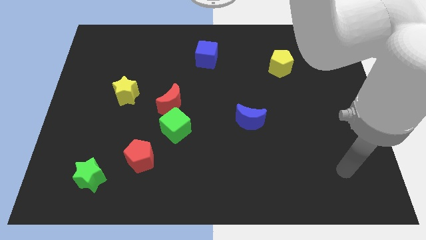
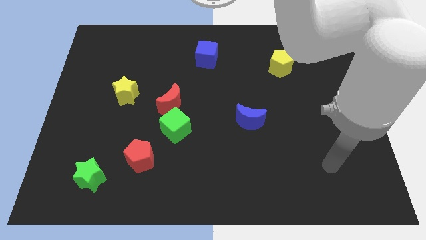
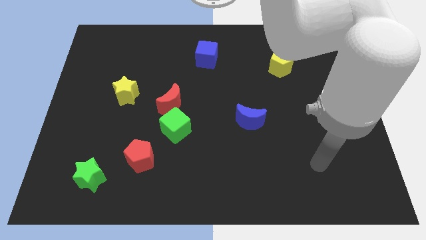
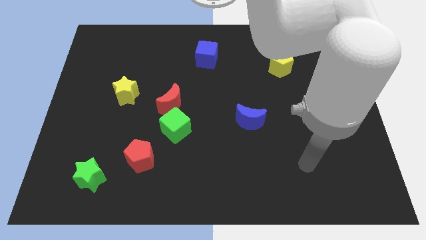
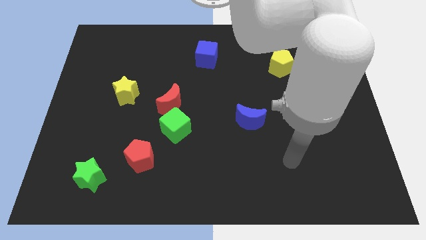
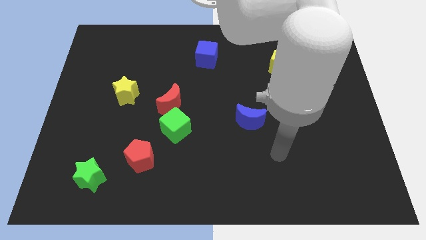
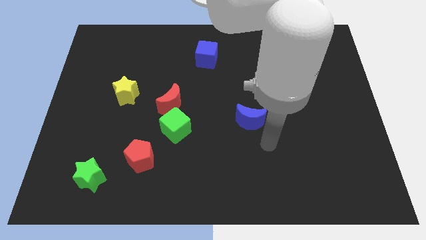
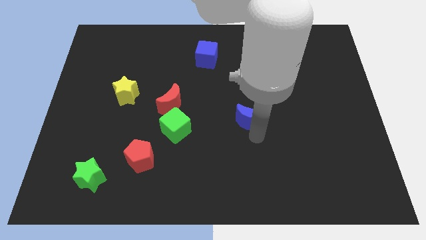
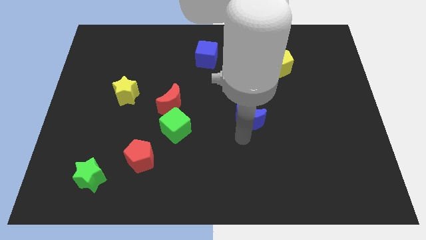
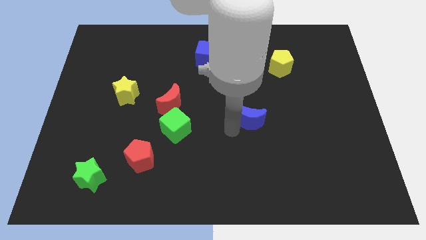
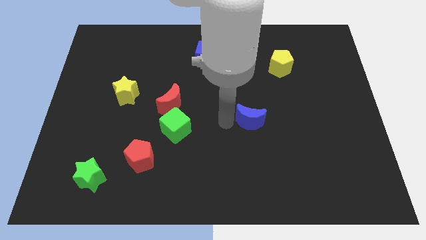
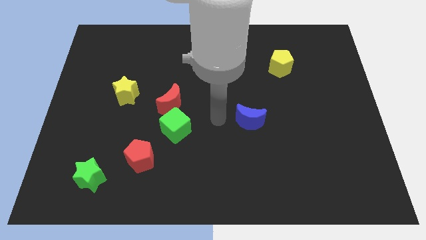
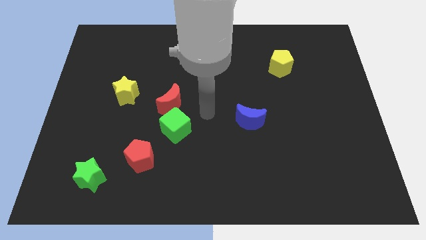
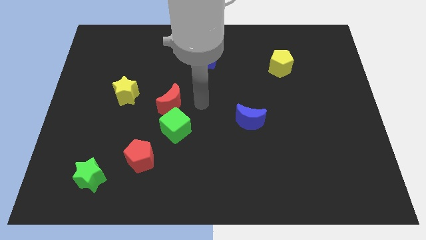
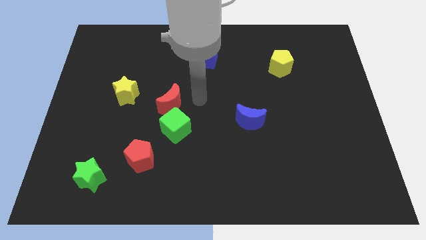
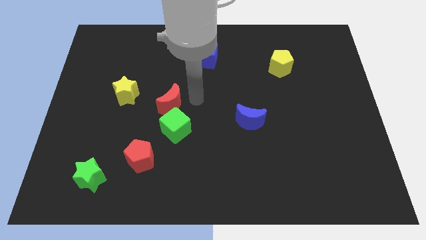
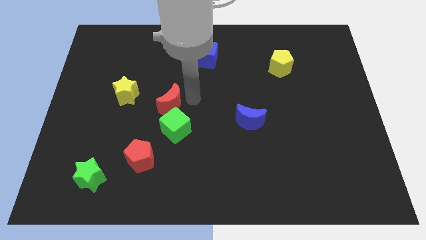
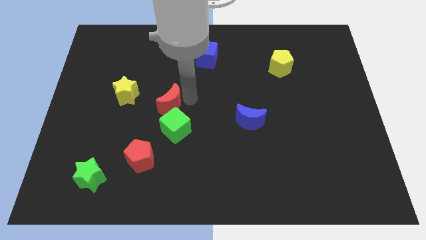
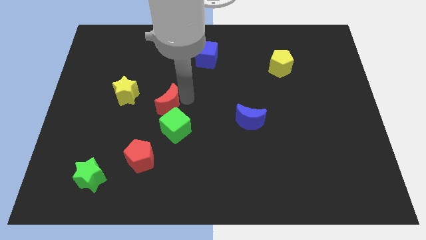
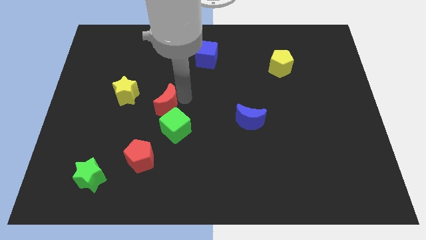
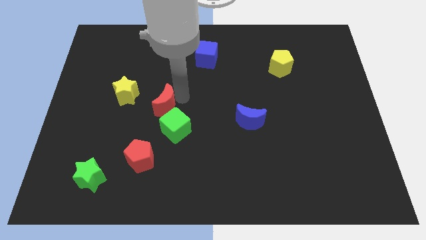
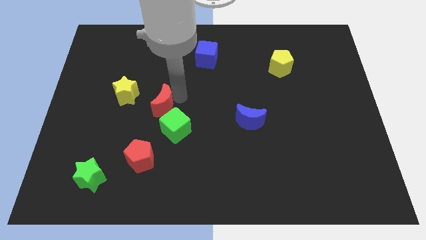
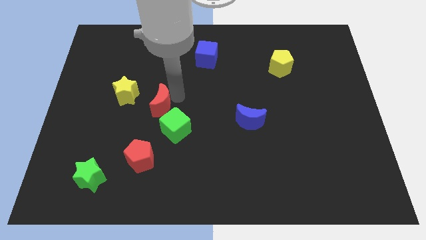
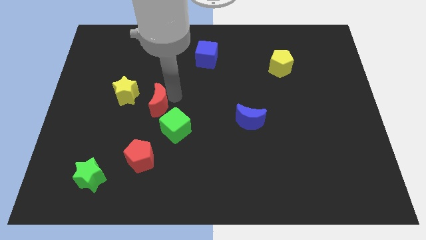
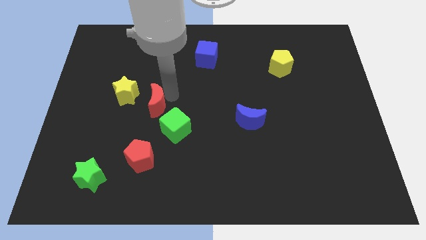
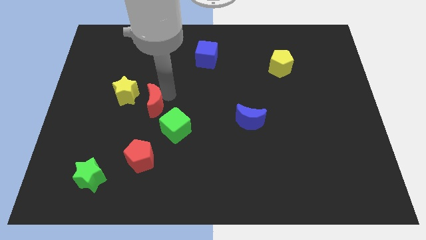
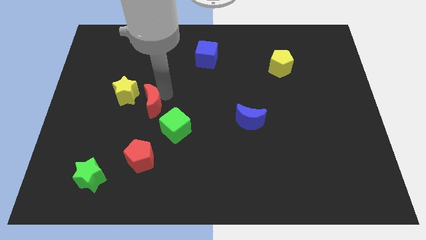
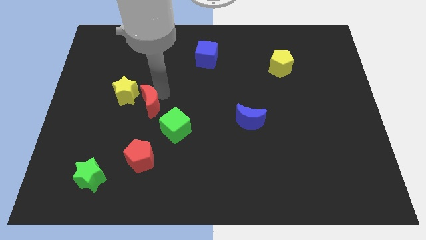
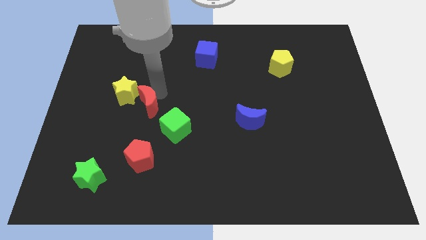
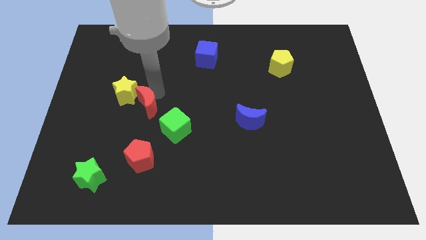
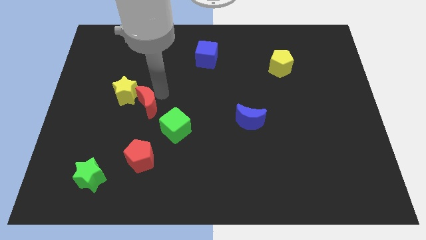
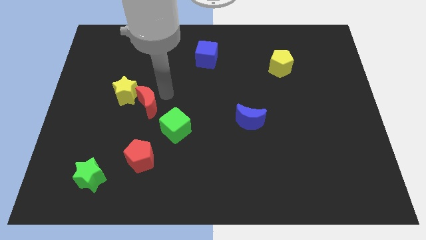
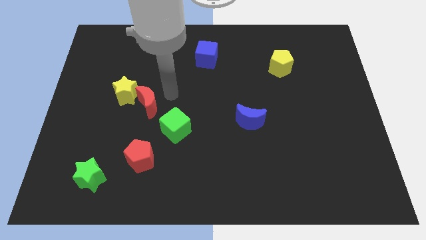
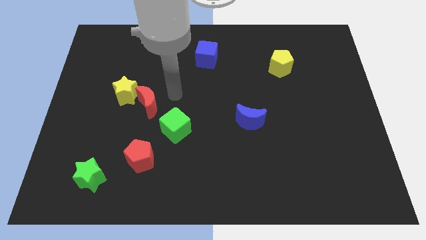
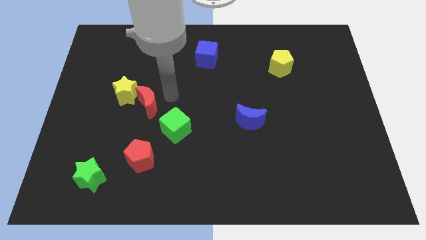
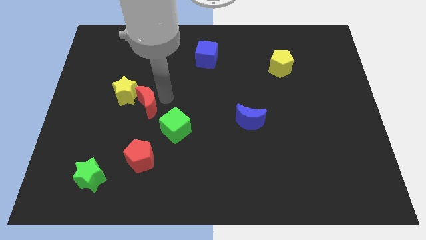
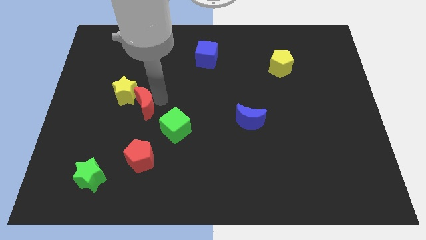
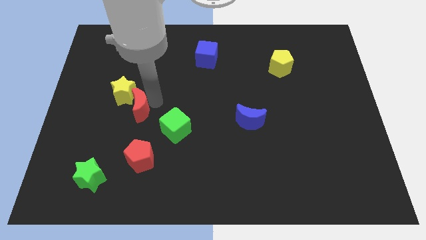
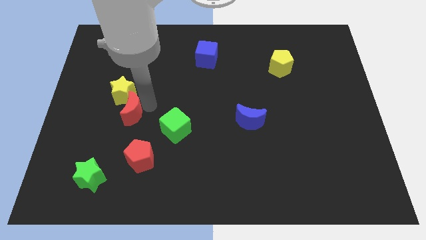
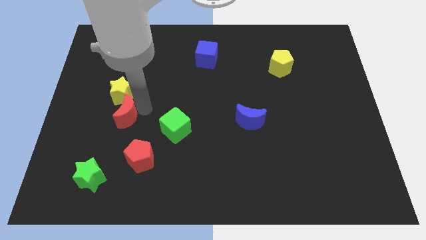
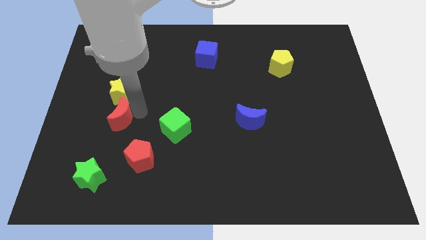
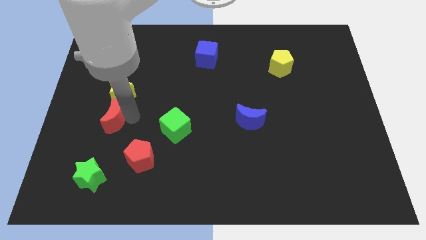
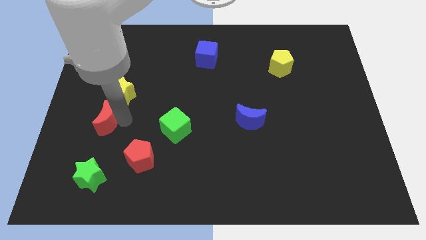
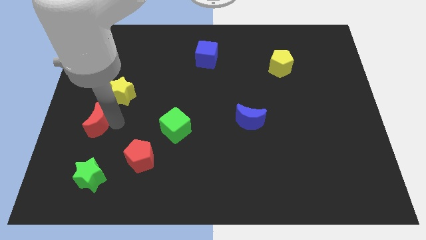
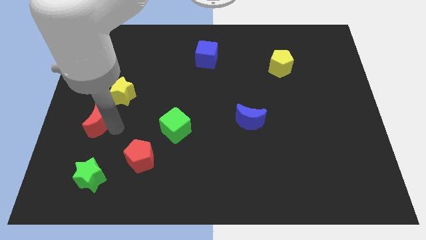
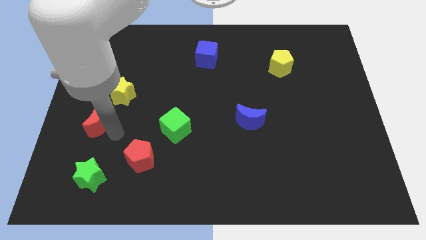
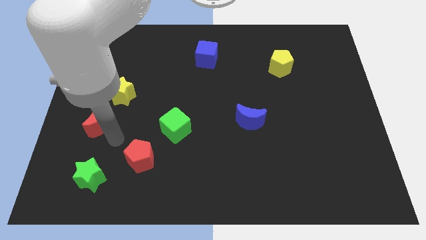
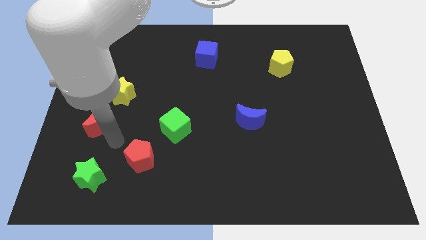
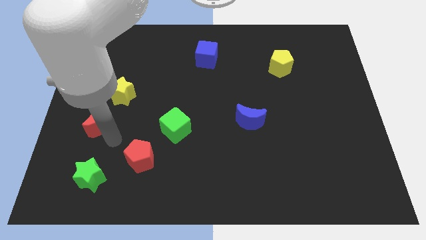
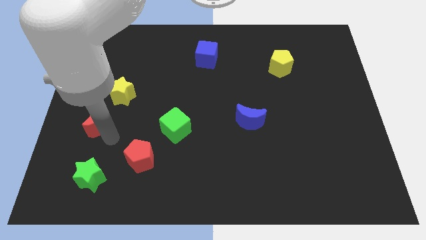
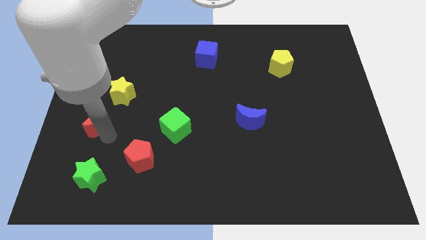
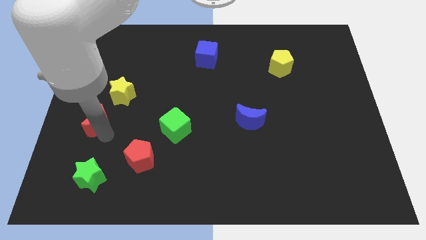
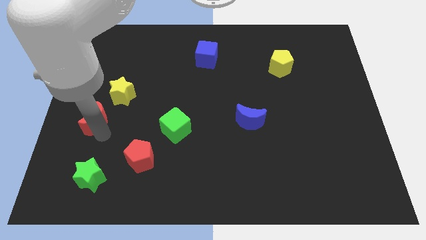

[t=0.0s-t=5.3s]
put the red moon to the left side

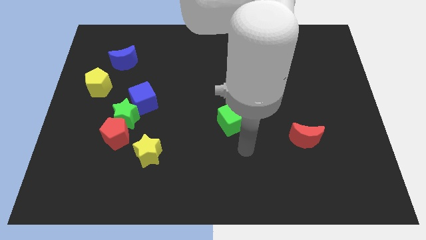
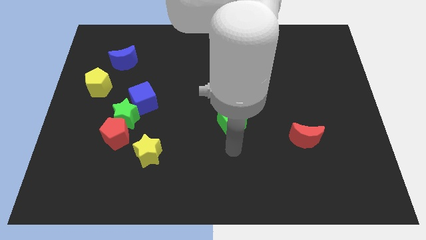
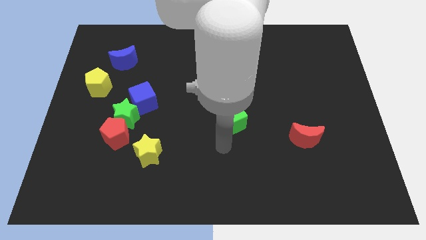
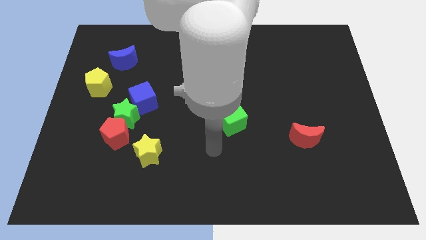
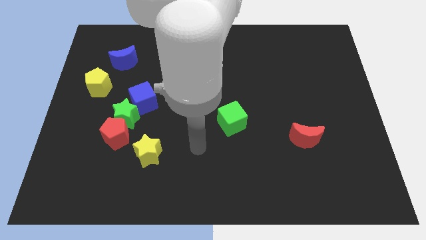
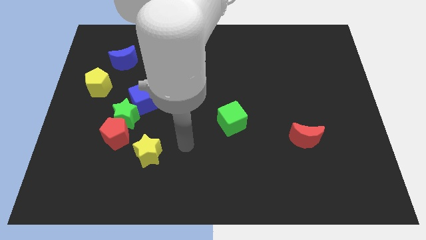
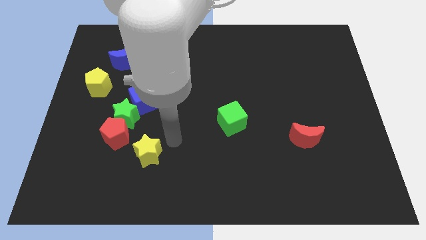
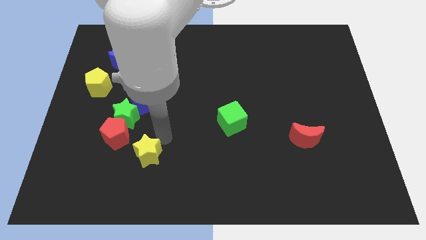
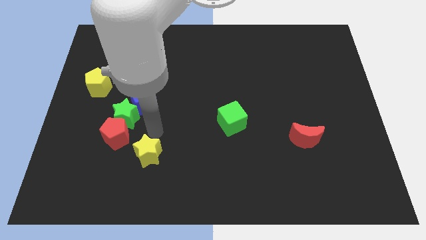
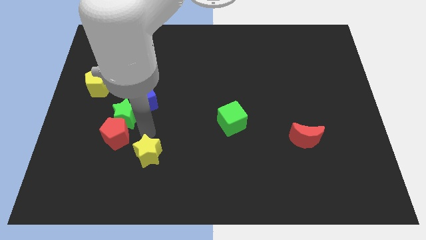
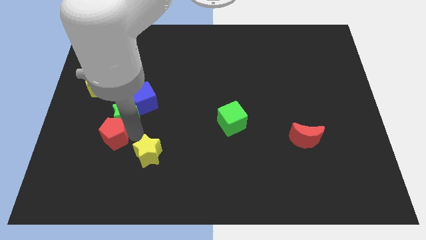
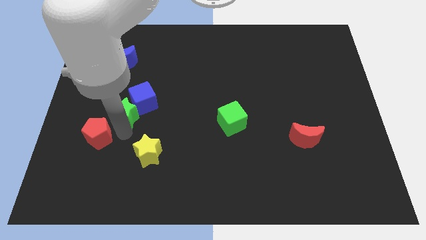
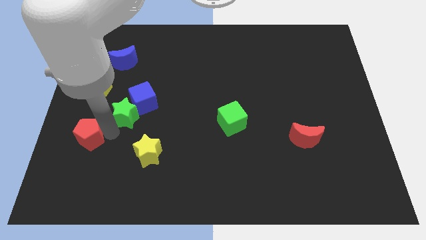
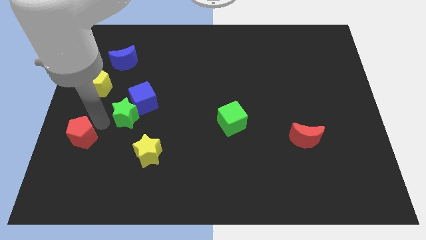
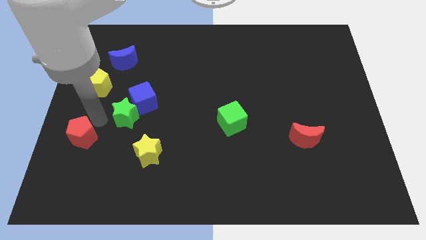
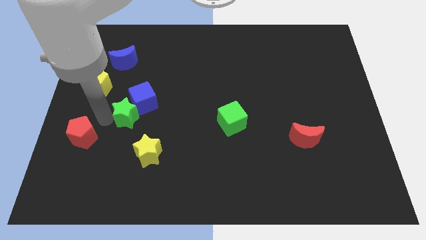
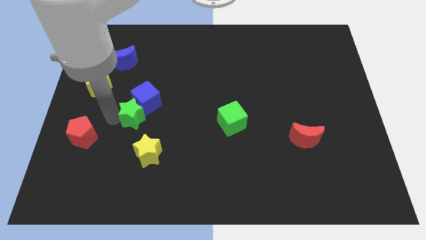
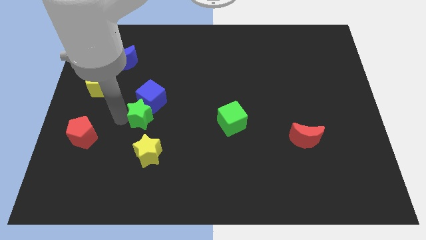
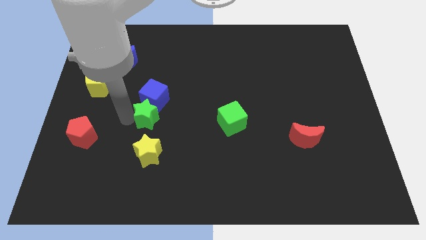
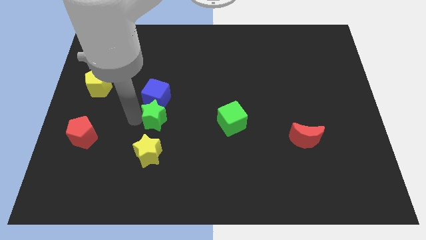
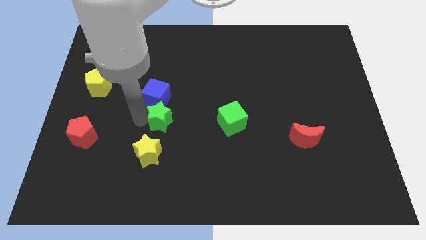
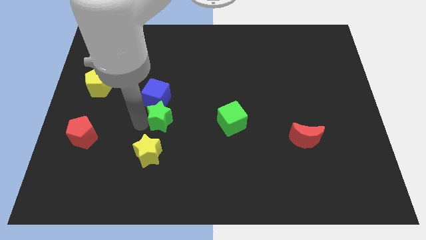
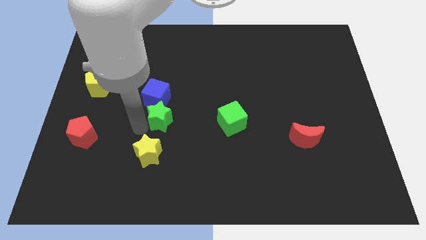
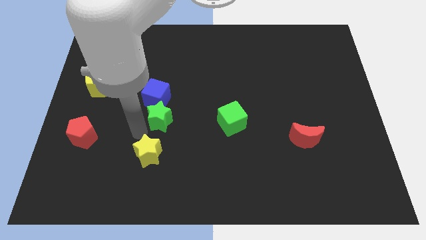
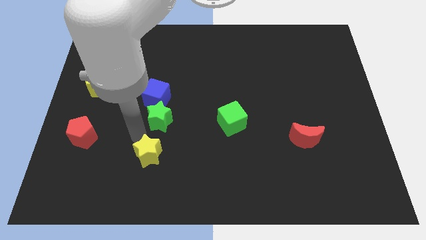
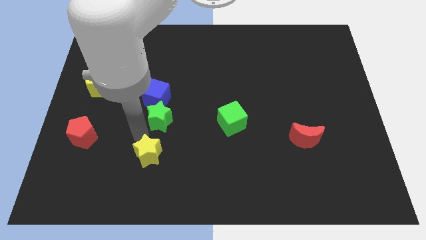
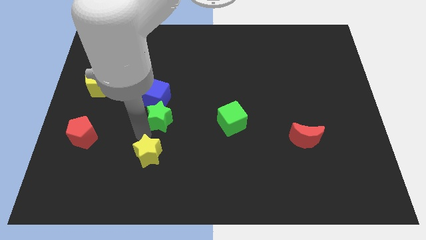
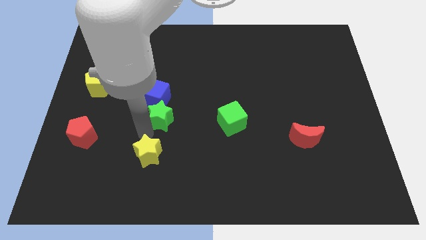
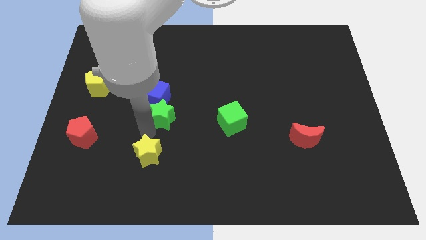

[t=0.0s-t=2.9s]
slide the green star to the center
